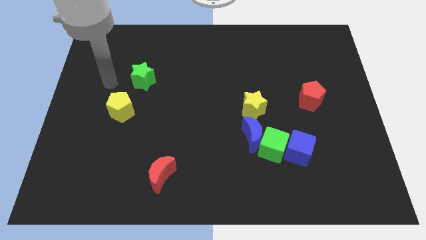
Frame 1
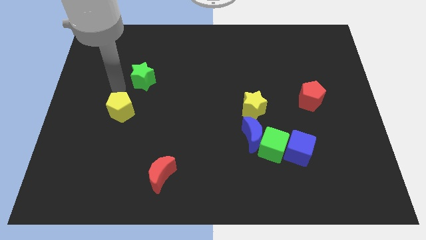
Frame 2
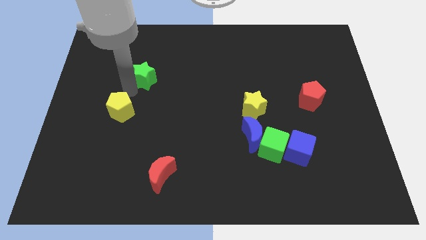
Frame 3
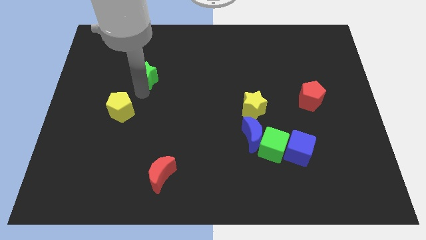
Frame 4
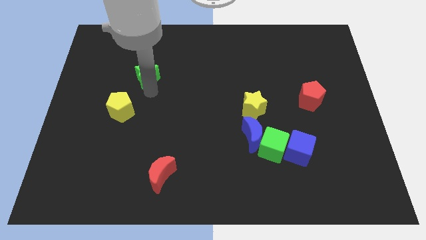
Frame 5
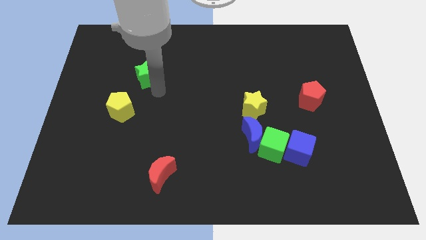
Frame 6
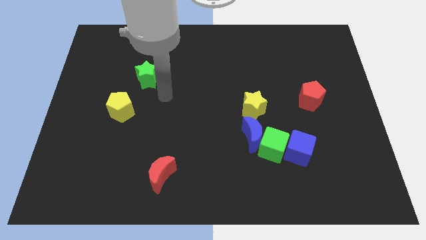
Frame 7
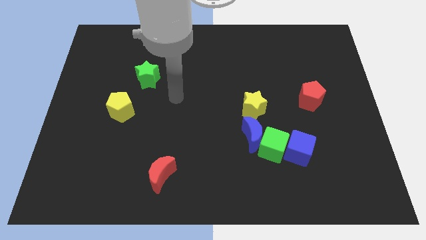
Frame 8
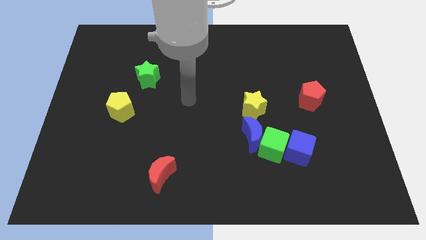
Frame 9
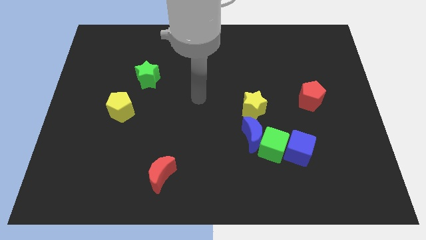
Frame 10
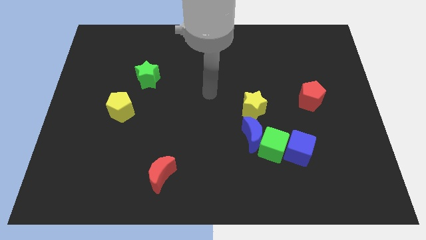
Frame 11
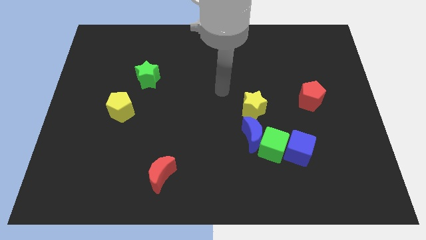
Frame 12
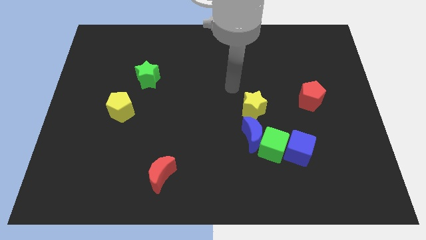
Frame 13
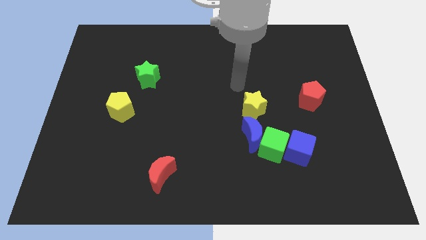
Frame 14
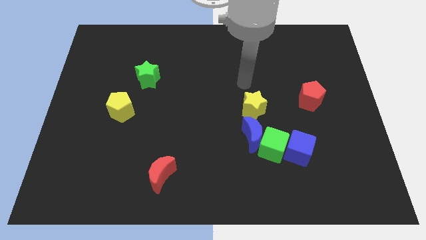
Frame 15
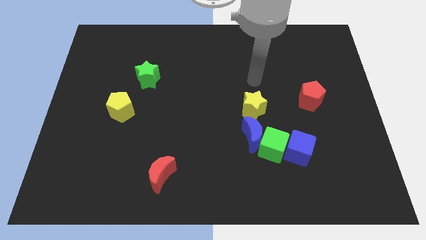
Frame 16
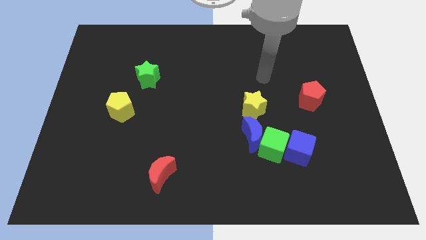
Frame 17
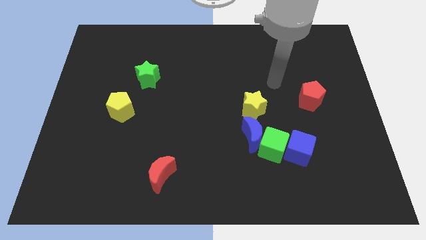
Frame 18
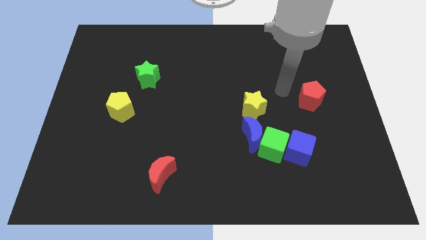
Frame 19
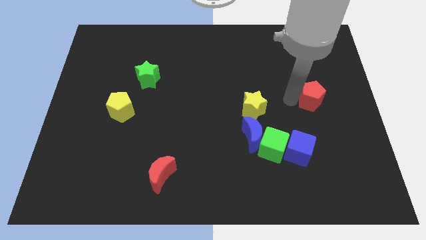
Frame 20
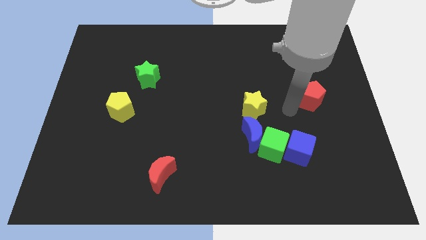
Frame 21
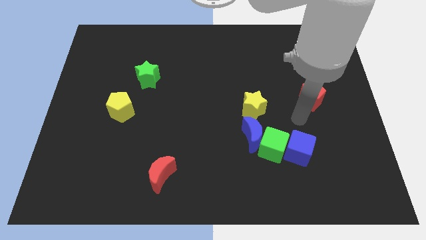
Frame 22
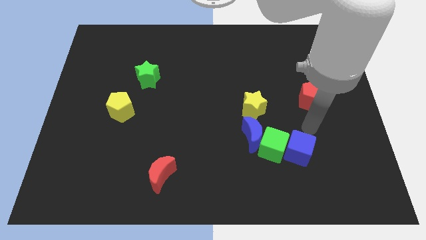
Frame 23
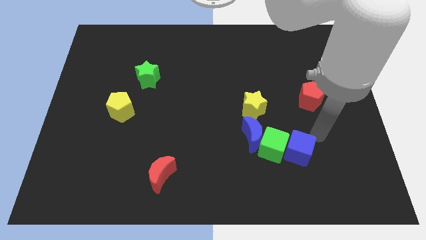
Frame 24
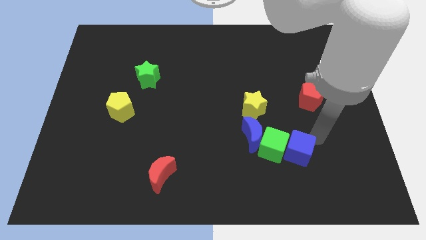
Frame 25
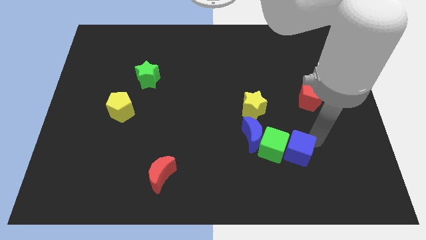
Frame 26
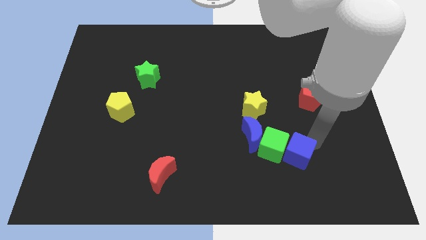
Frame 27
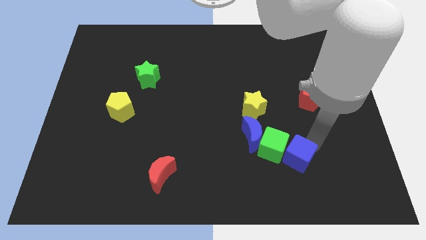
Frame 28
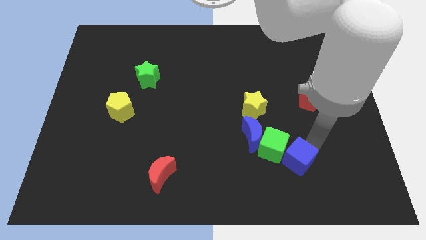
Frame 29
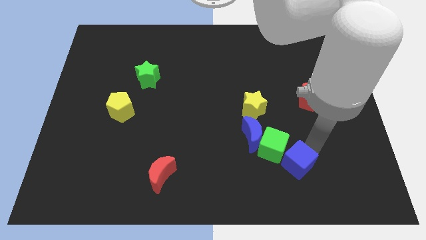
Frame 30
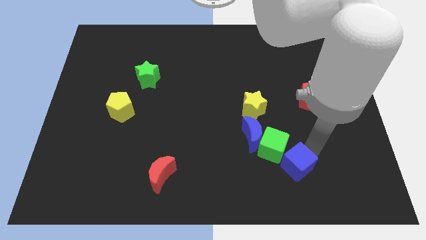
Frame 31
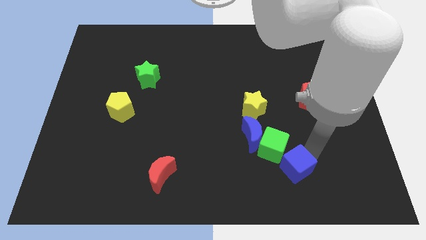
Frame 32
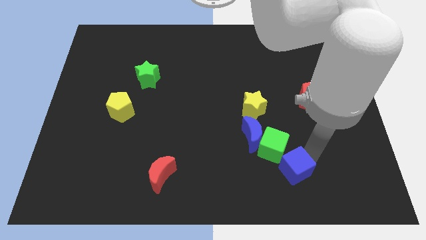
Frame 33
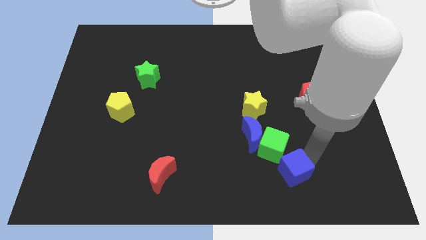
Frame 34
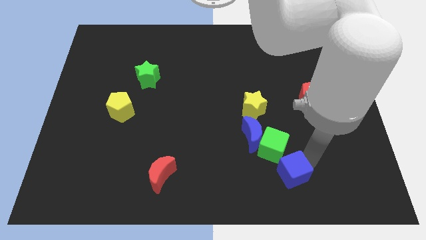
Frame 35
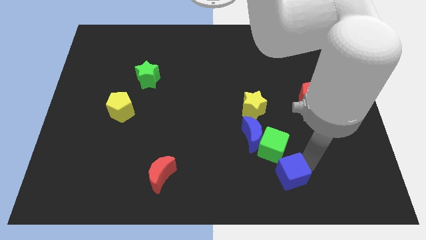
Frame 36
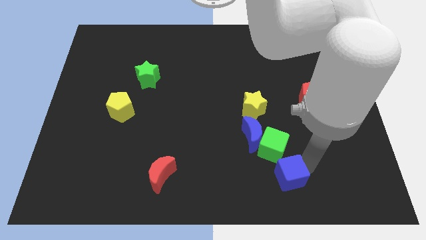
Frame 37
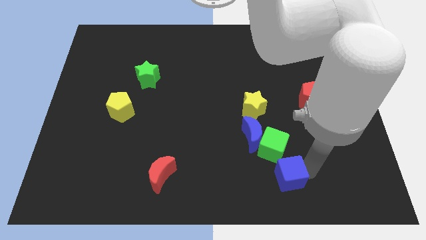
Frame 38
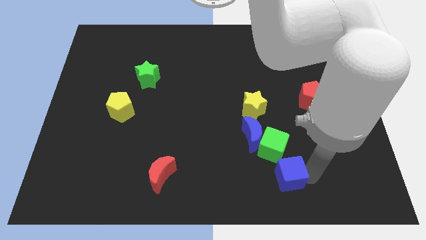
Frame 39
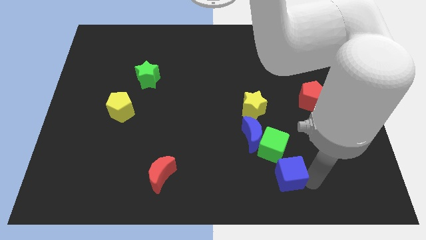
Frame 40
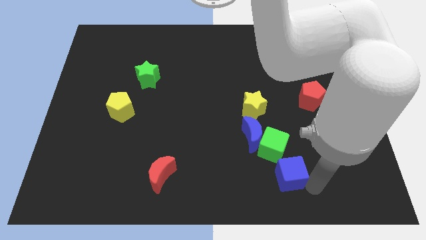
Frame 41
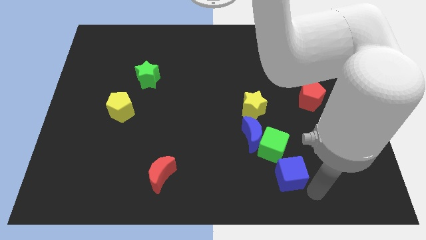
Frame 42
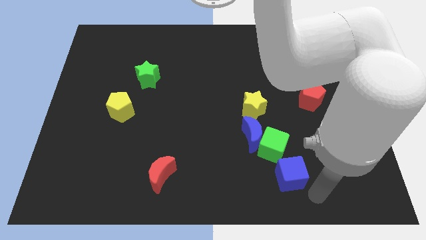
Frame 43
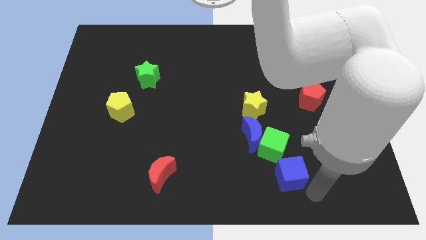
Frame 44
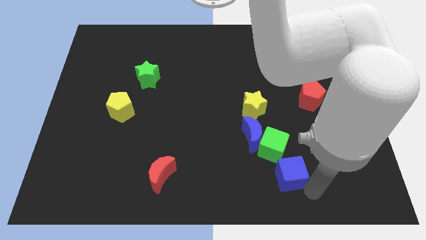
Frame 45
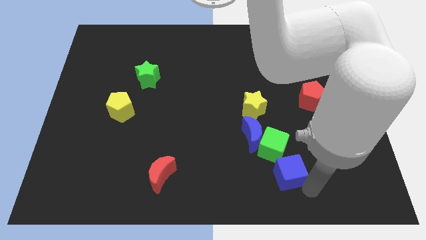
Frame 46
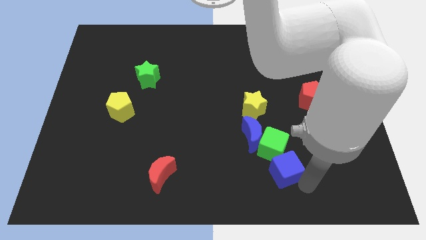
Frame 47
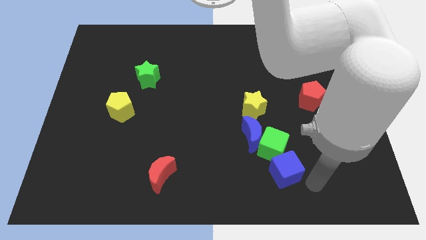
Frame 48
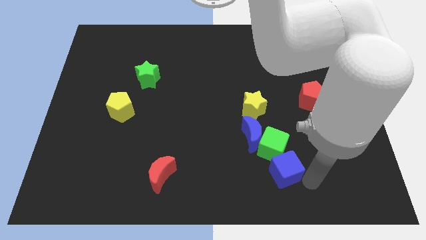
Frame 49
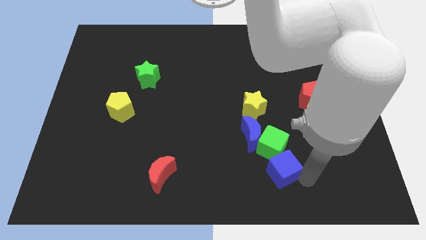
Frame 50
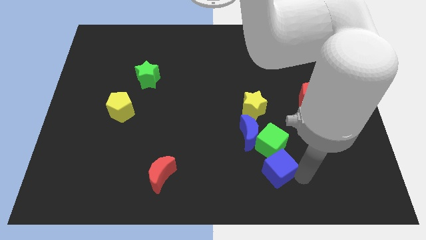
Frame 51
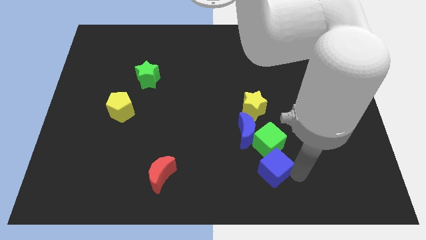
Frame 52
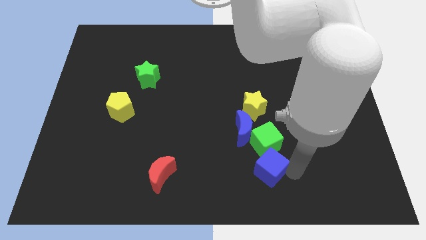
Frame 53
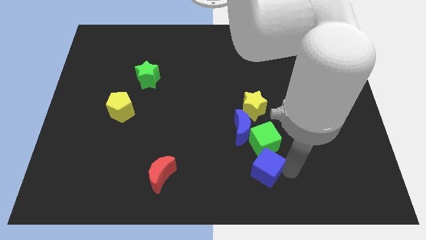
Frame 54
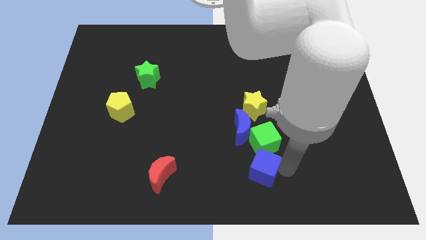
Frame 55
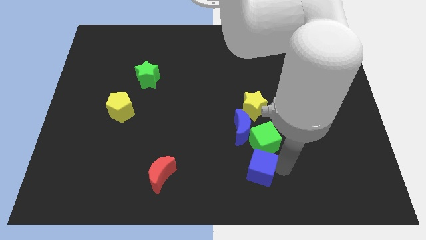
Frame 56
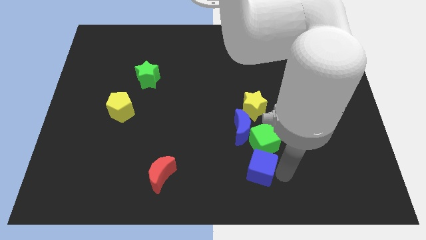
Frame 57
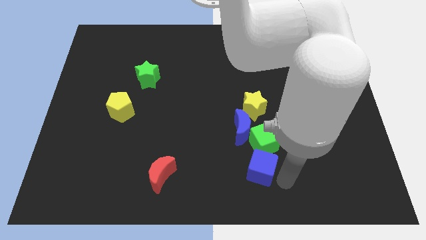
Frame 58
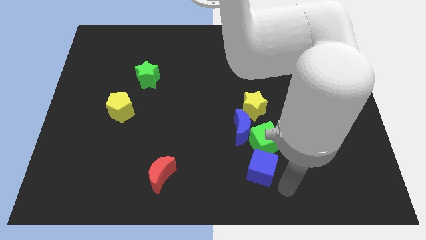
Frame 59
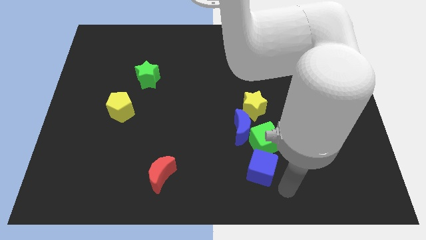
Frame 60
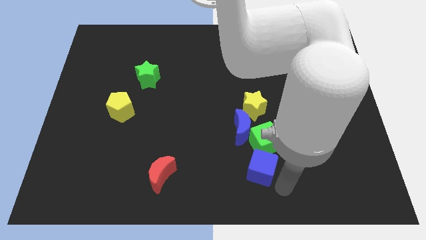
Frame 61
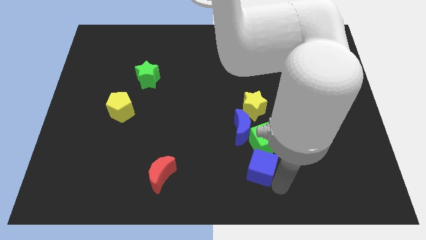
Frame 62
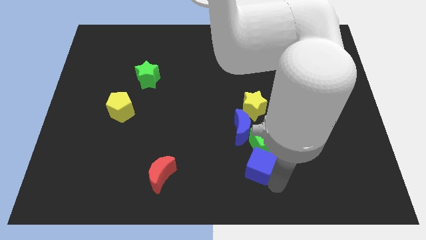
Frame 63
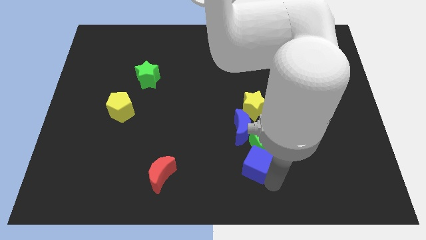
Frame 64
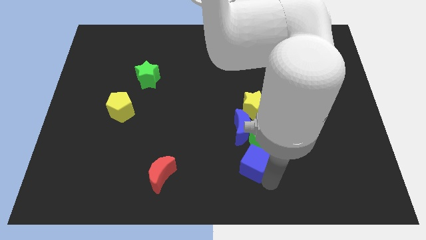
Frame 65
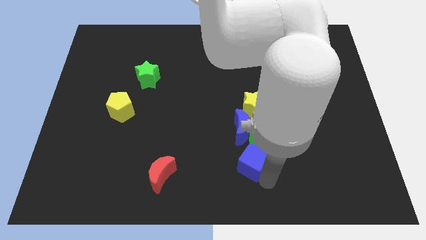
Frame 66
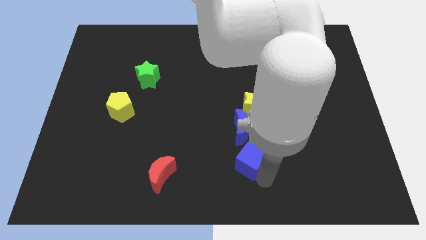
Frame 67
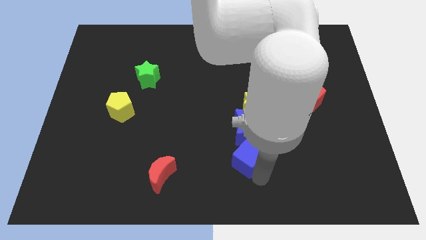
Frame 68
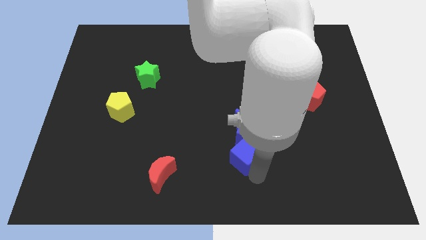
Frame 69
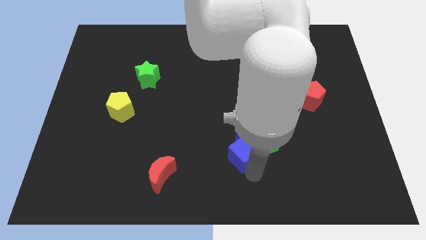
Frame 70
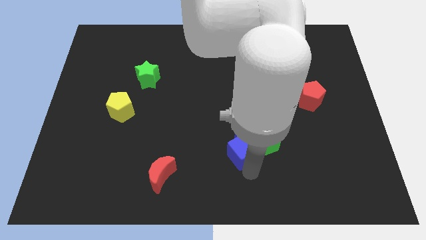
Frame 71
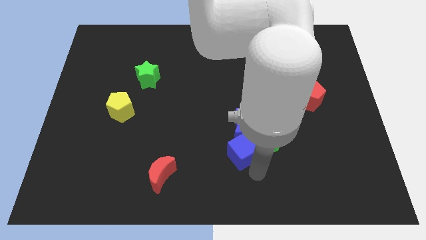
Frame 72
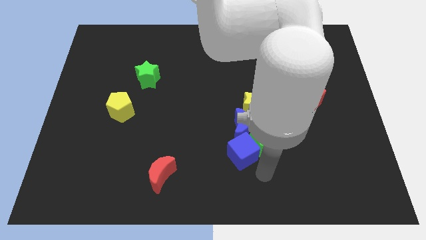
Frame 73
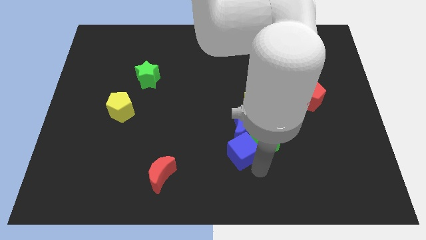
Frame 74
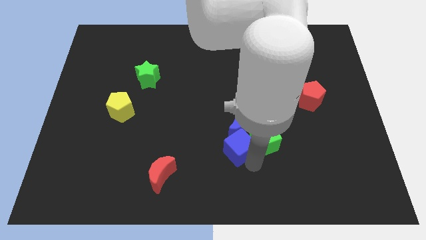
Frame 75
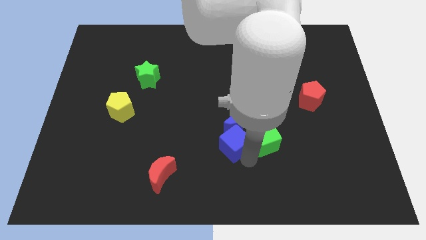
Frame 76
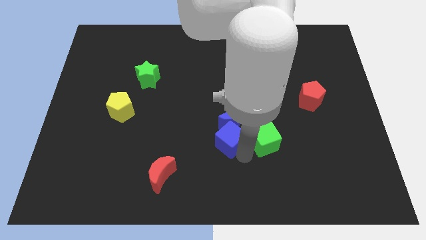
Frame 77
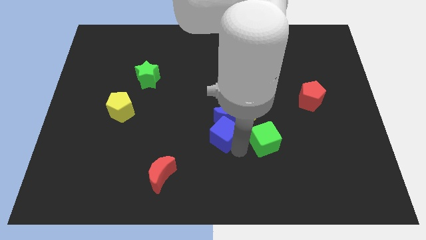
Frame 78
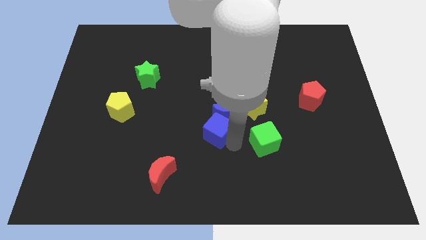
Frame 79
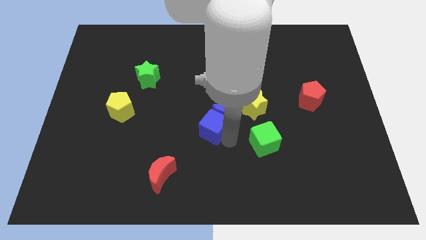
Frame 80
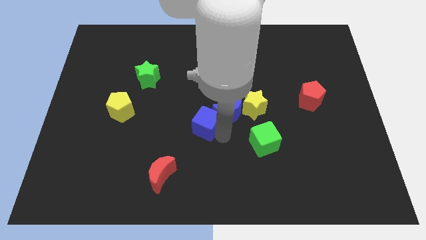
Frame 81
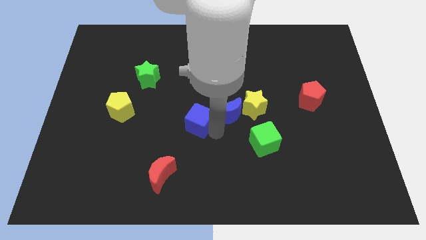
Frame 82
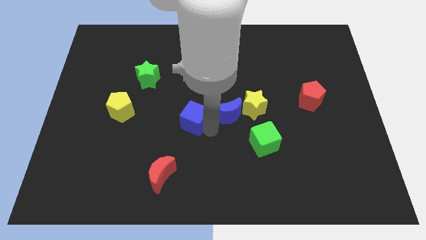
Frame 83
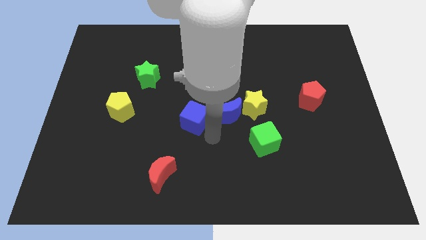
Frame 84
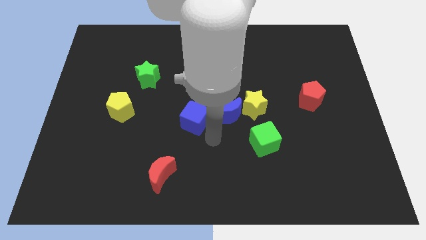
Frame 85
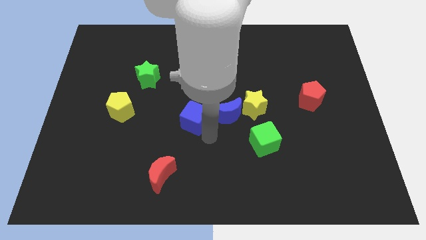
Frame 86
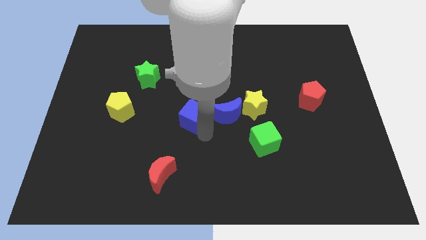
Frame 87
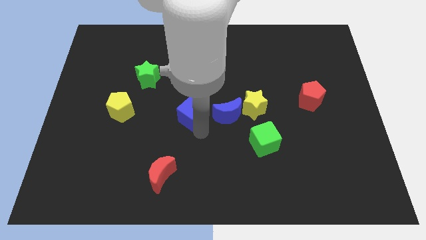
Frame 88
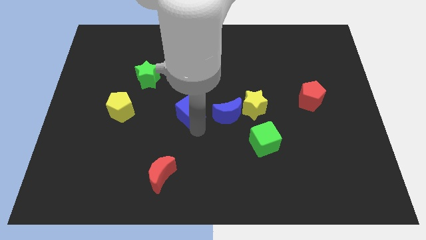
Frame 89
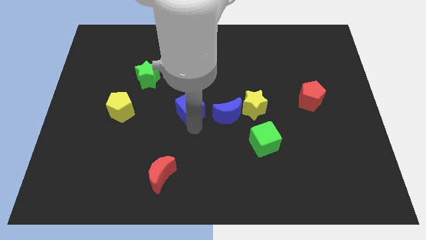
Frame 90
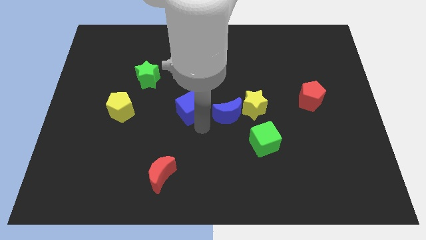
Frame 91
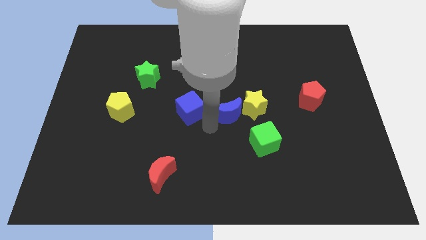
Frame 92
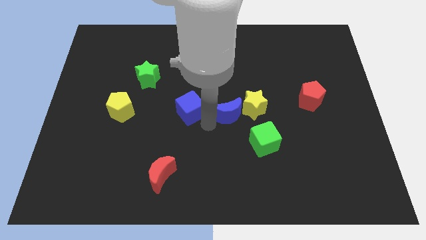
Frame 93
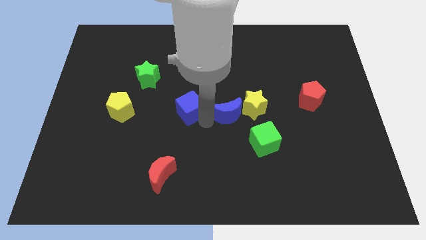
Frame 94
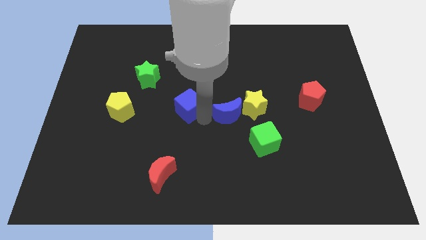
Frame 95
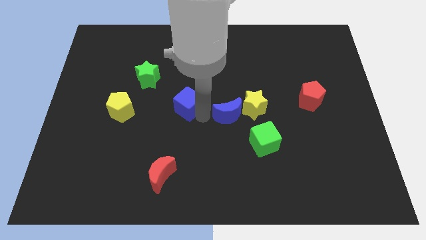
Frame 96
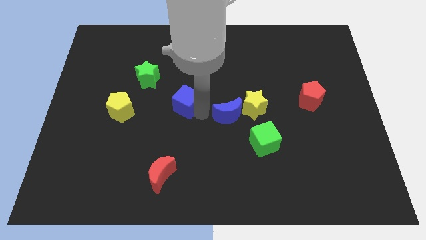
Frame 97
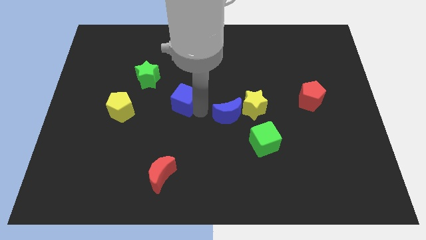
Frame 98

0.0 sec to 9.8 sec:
slide the blue cube to the bottom right side of the green star
